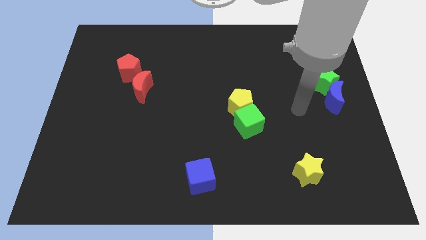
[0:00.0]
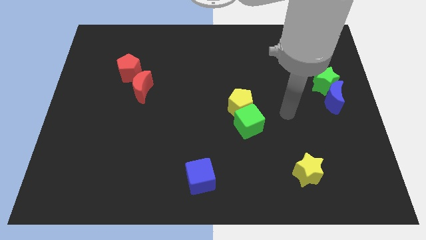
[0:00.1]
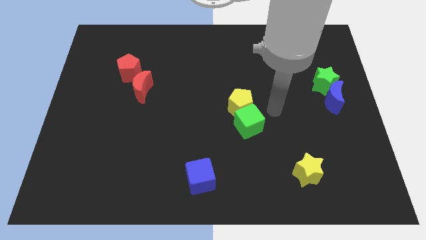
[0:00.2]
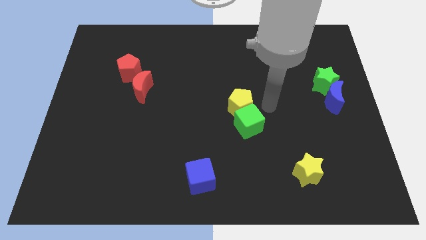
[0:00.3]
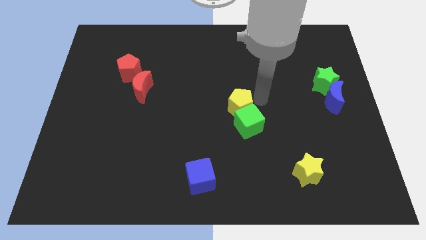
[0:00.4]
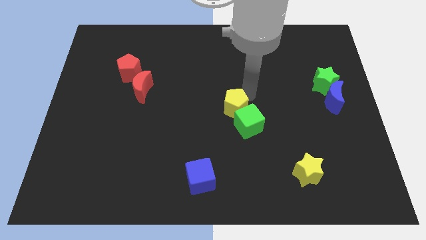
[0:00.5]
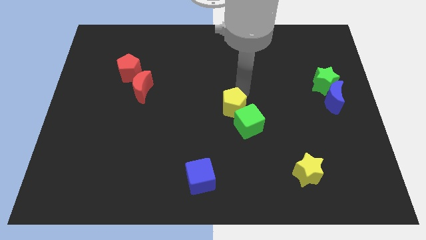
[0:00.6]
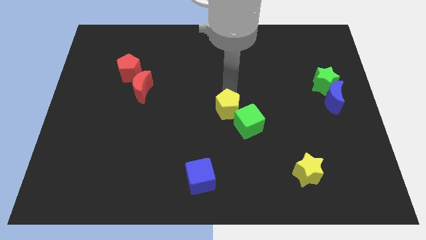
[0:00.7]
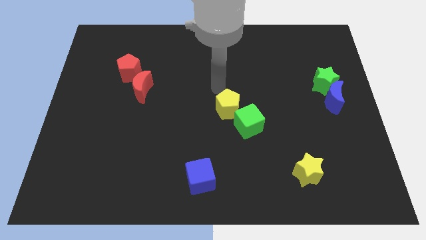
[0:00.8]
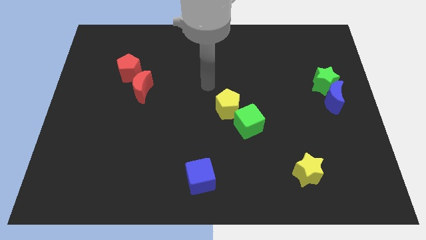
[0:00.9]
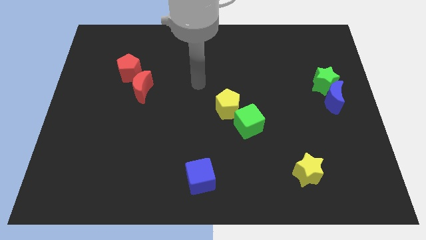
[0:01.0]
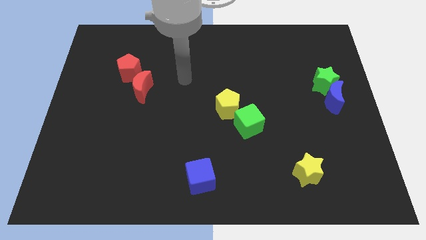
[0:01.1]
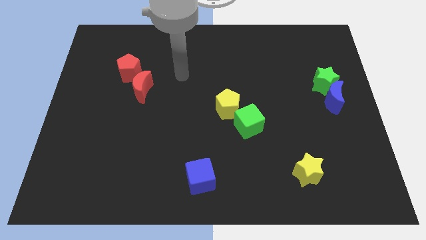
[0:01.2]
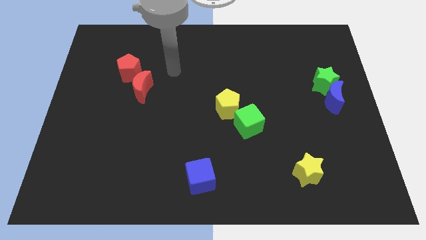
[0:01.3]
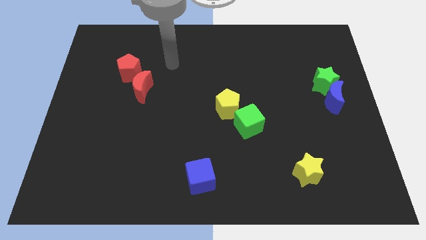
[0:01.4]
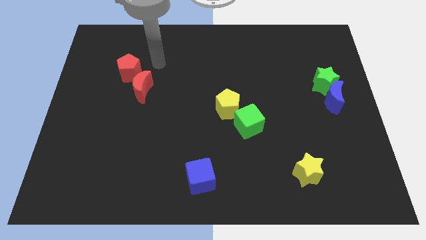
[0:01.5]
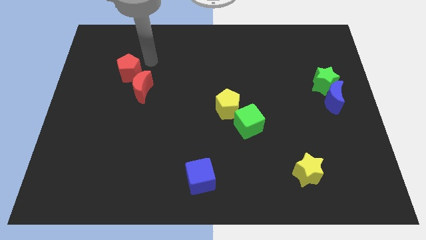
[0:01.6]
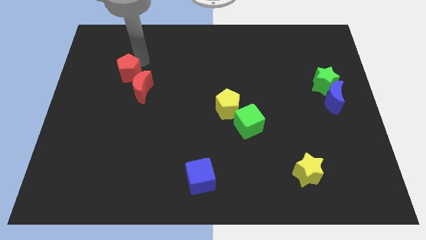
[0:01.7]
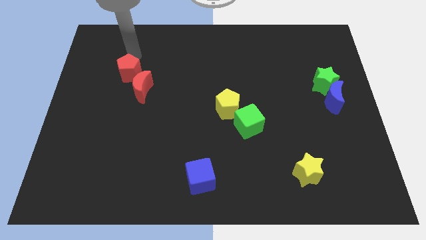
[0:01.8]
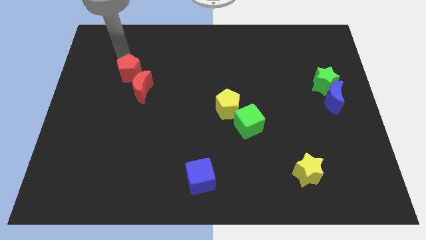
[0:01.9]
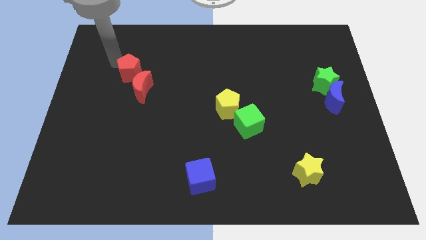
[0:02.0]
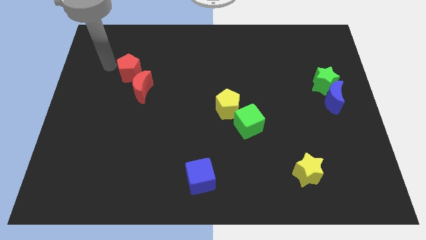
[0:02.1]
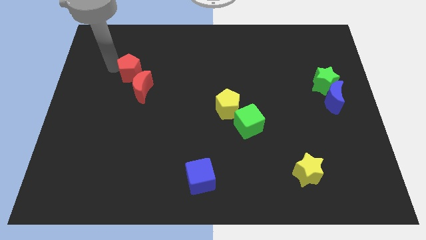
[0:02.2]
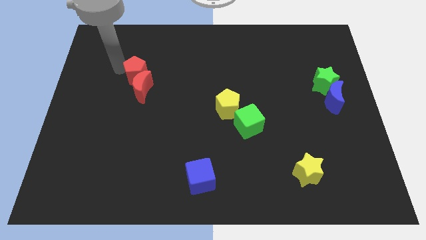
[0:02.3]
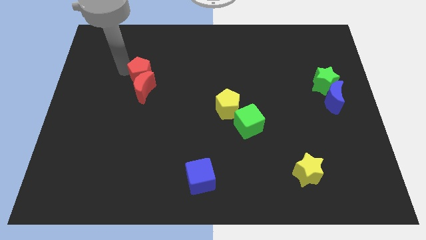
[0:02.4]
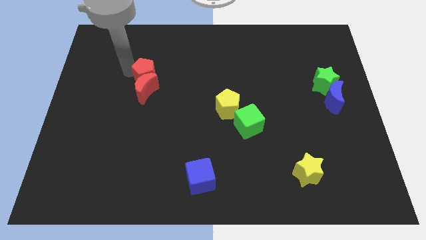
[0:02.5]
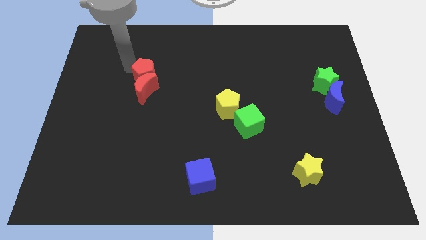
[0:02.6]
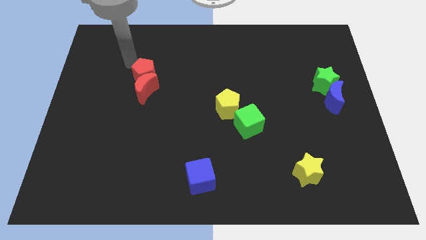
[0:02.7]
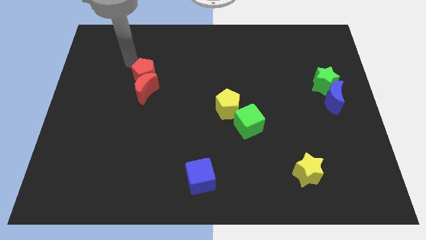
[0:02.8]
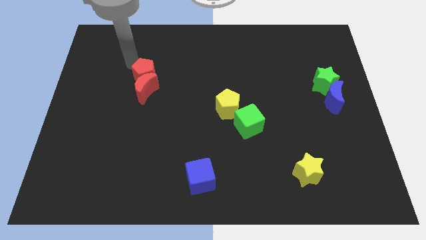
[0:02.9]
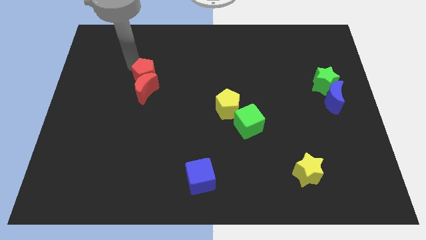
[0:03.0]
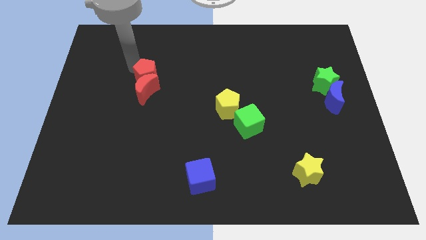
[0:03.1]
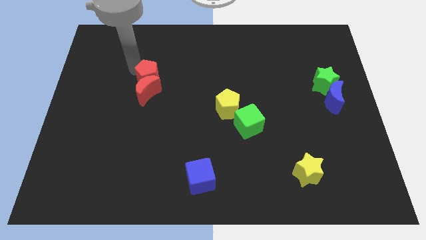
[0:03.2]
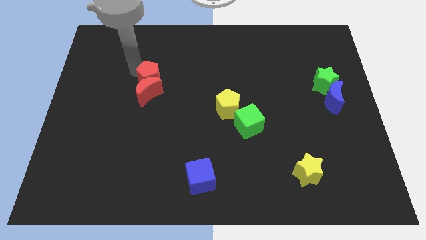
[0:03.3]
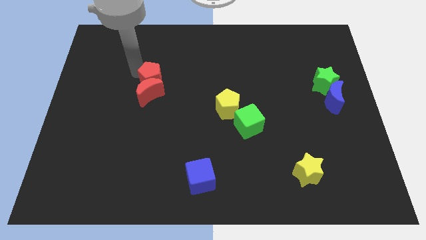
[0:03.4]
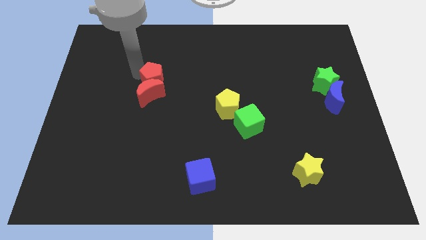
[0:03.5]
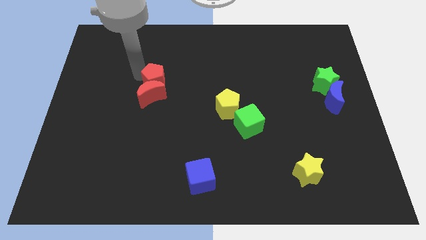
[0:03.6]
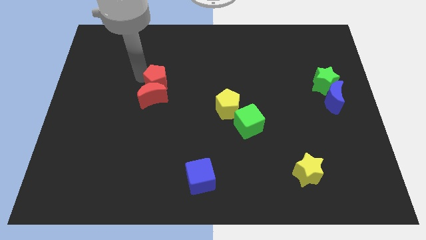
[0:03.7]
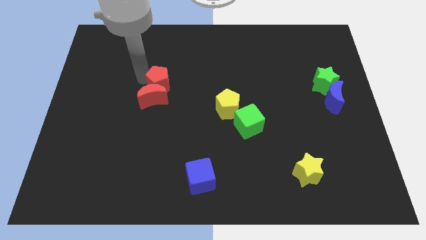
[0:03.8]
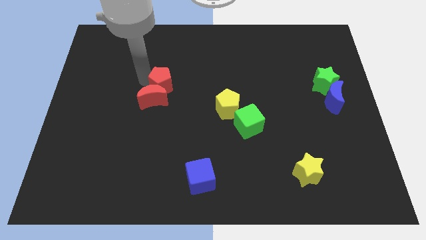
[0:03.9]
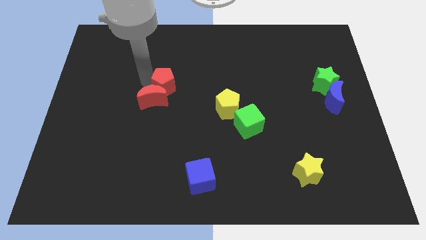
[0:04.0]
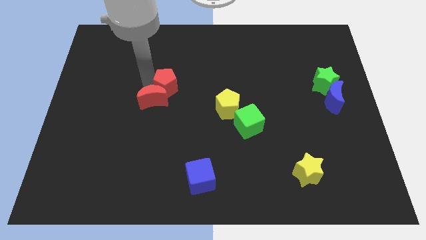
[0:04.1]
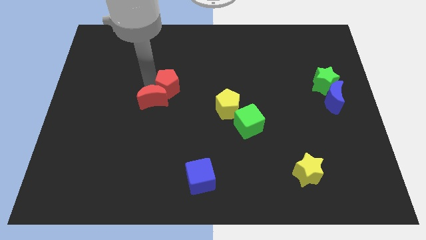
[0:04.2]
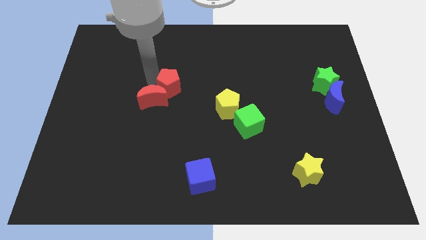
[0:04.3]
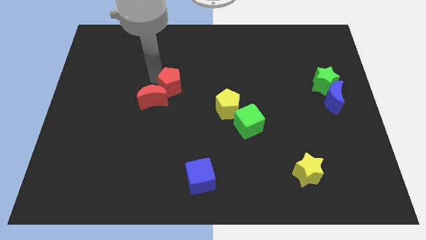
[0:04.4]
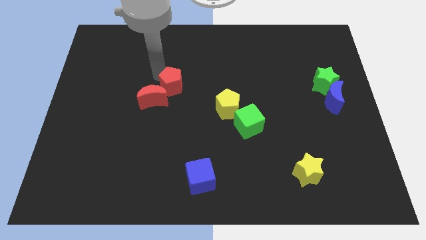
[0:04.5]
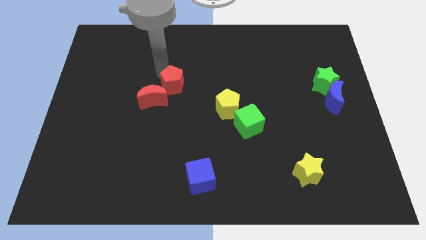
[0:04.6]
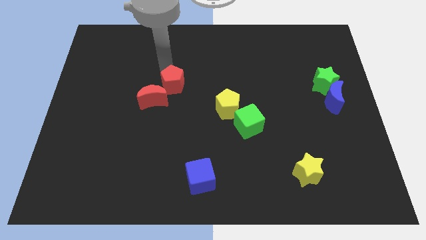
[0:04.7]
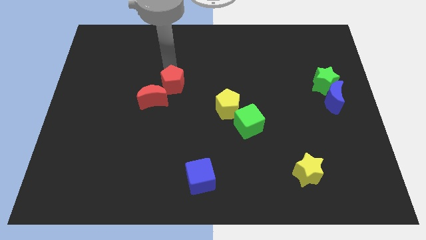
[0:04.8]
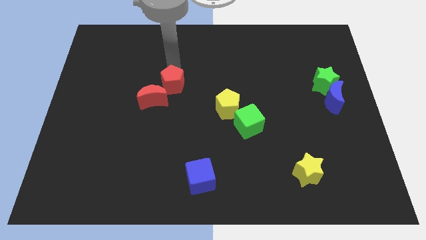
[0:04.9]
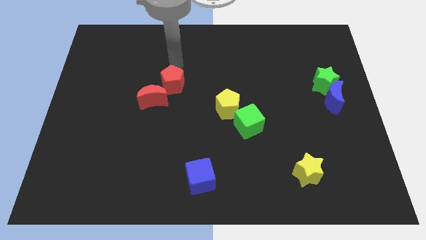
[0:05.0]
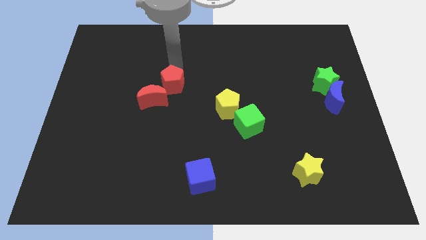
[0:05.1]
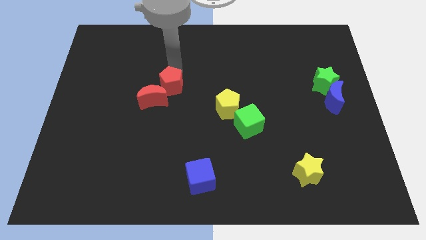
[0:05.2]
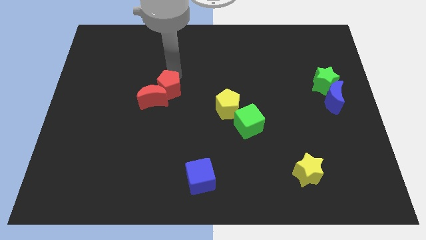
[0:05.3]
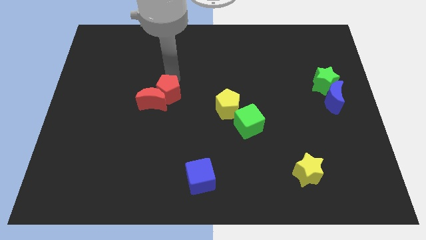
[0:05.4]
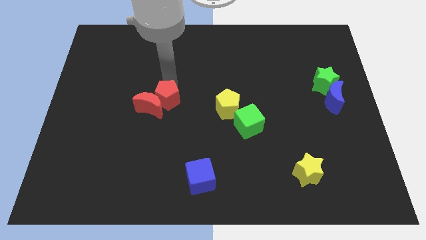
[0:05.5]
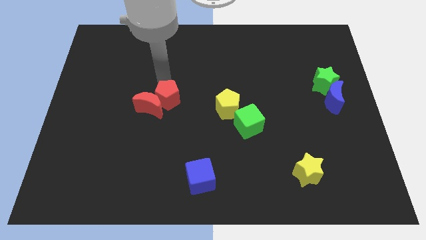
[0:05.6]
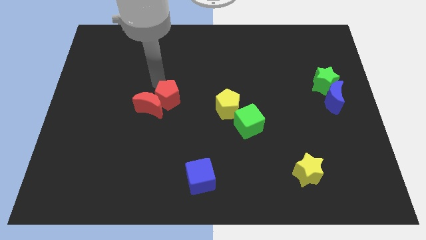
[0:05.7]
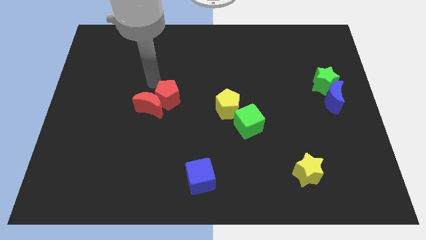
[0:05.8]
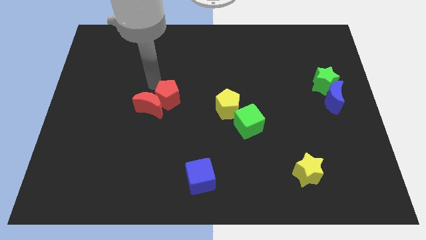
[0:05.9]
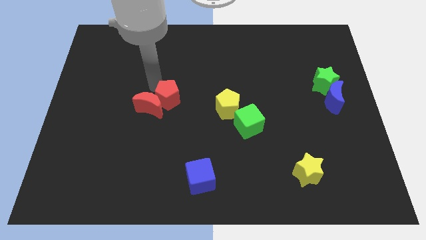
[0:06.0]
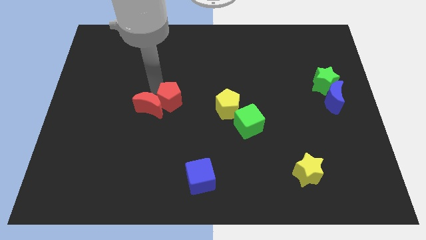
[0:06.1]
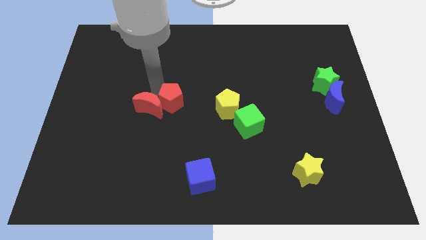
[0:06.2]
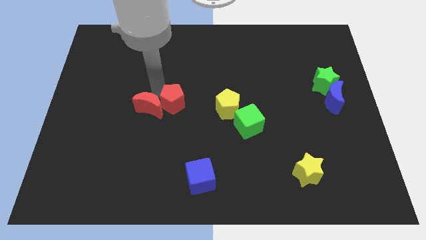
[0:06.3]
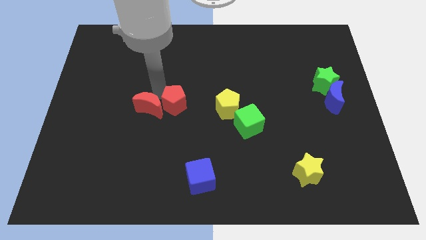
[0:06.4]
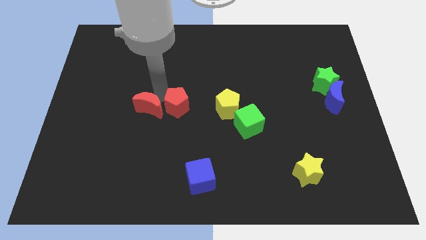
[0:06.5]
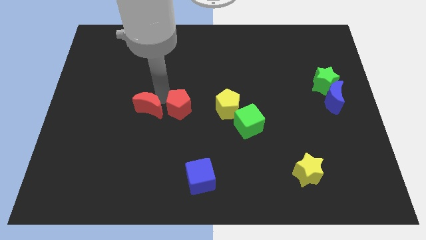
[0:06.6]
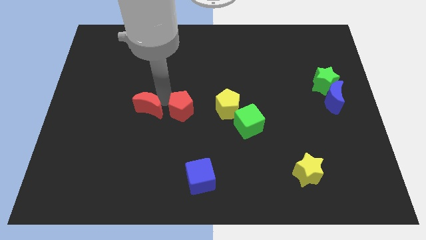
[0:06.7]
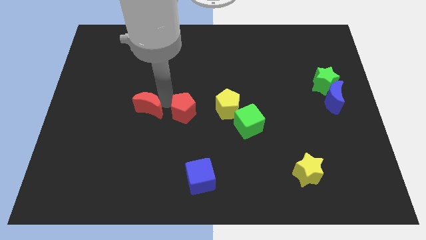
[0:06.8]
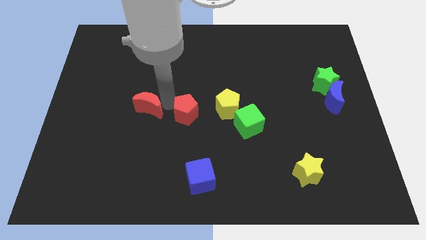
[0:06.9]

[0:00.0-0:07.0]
move the red pentagon down and right diagonally

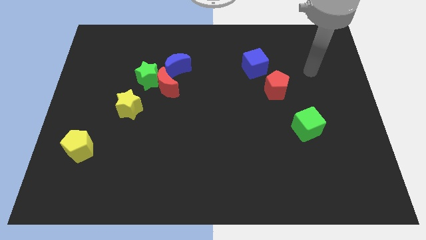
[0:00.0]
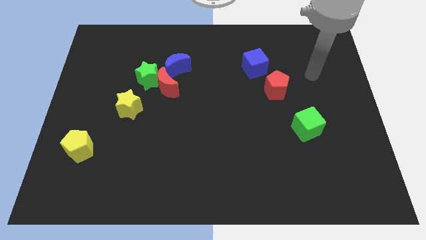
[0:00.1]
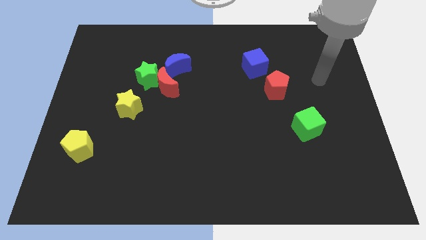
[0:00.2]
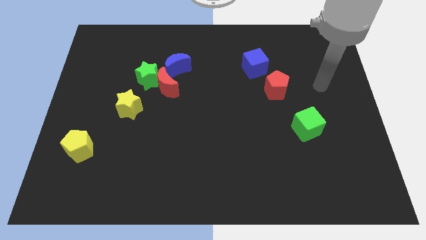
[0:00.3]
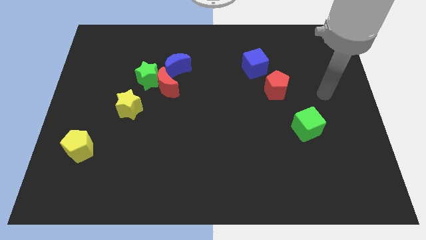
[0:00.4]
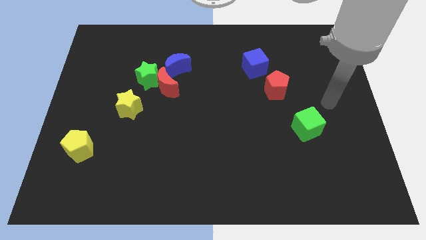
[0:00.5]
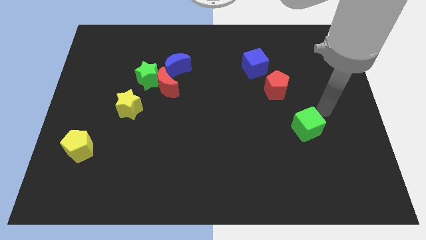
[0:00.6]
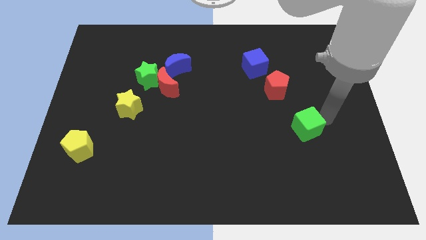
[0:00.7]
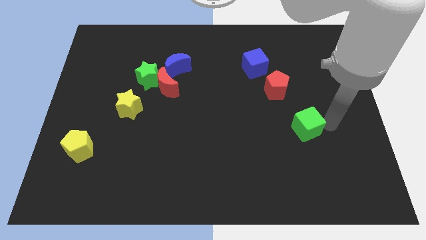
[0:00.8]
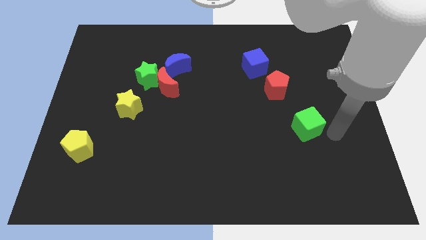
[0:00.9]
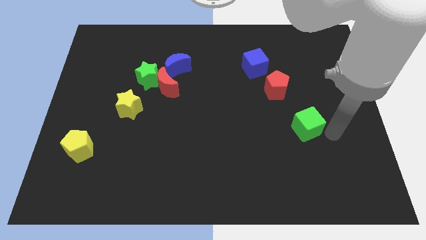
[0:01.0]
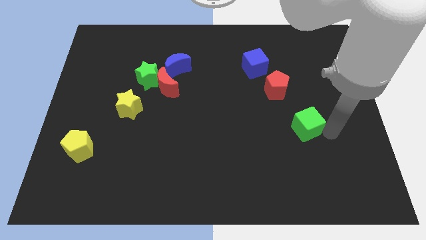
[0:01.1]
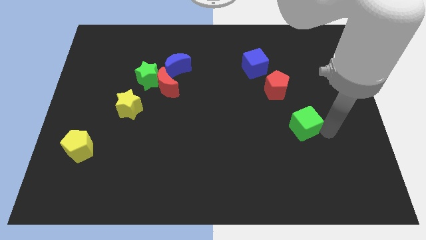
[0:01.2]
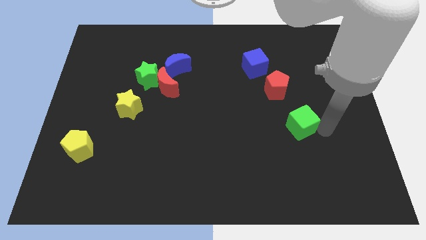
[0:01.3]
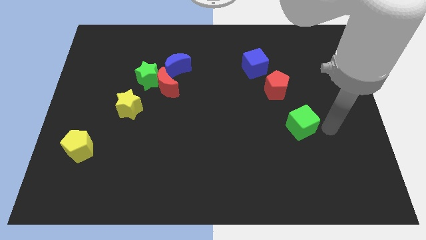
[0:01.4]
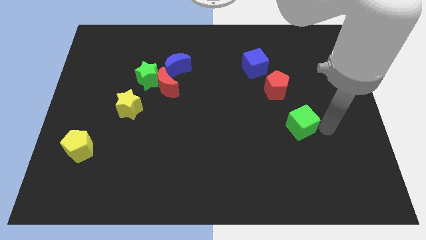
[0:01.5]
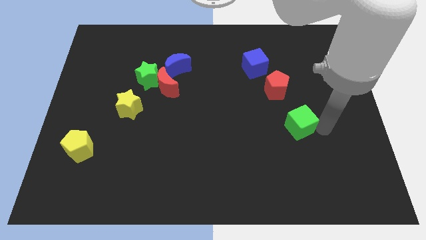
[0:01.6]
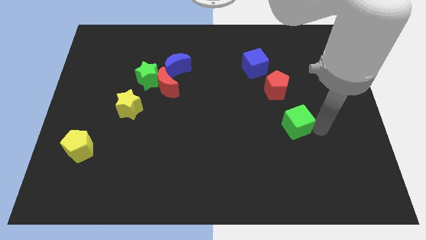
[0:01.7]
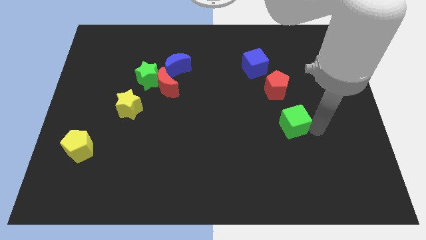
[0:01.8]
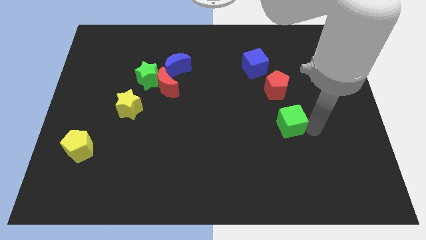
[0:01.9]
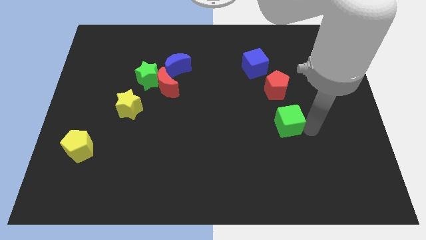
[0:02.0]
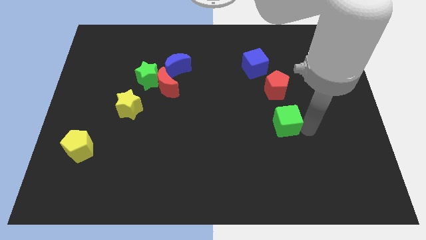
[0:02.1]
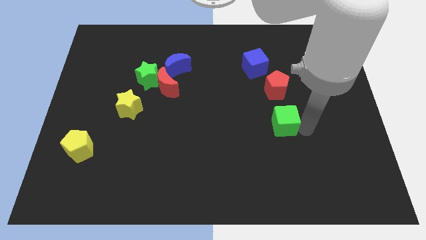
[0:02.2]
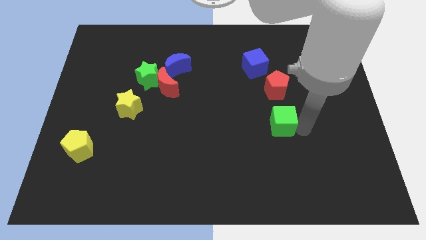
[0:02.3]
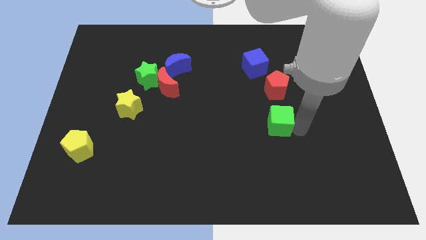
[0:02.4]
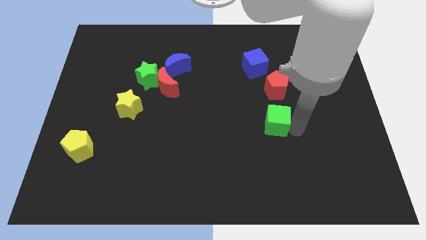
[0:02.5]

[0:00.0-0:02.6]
move the green cube left somewhat
